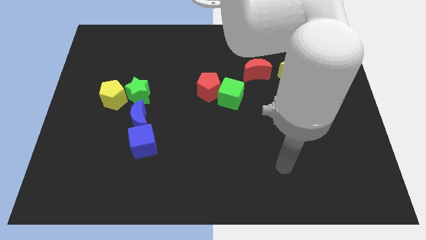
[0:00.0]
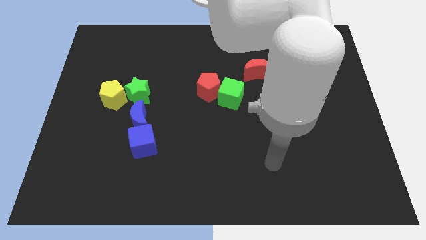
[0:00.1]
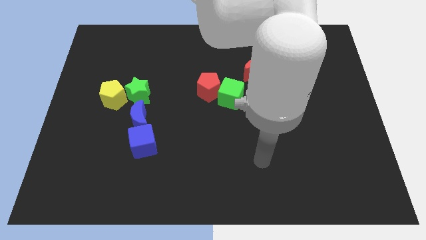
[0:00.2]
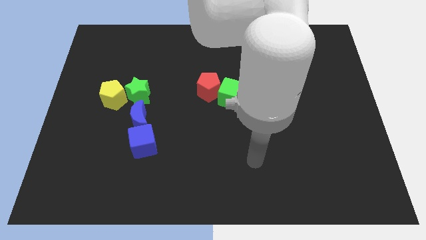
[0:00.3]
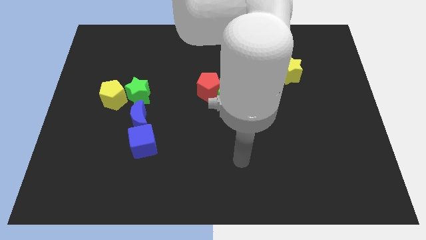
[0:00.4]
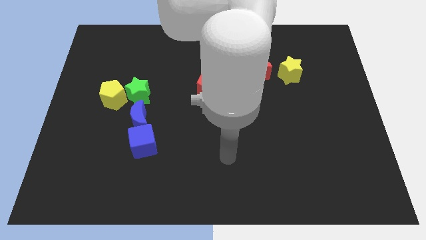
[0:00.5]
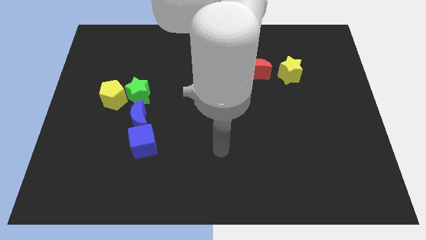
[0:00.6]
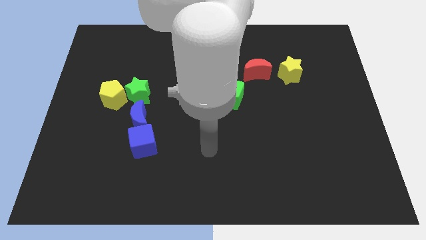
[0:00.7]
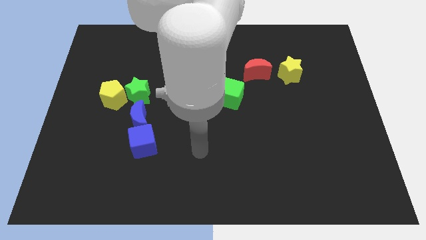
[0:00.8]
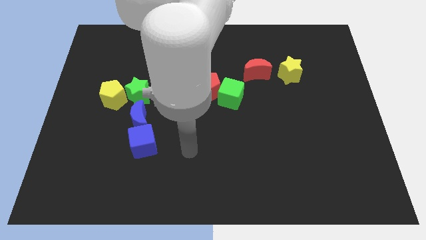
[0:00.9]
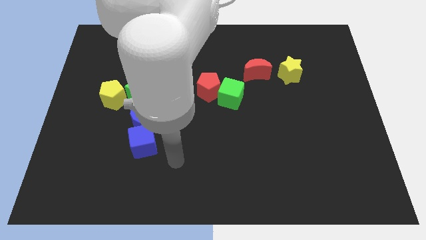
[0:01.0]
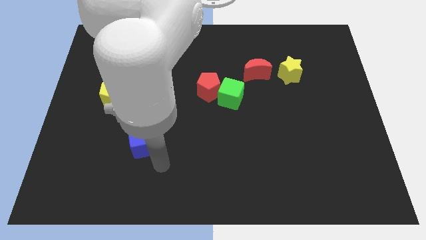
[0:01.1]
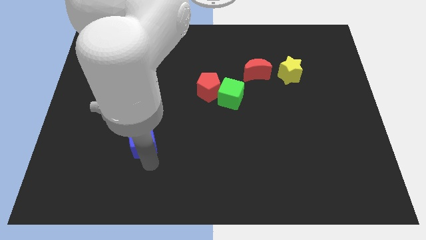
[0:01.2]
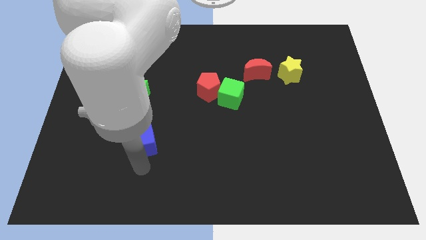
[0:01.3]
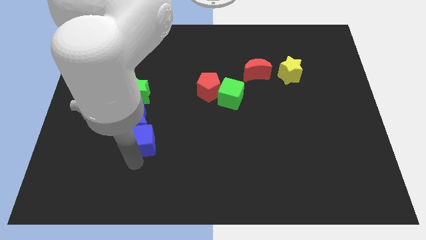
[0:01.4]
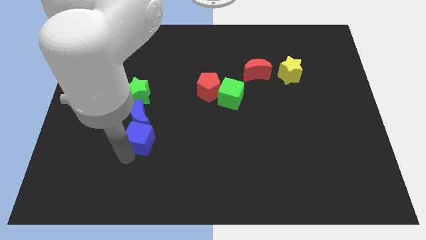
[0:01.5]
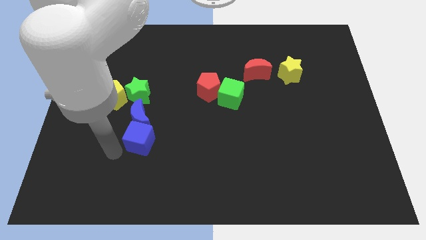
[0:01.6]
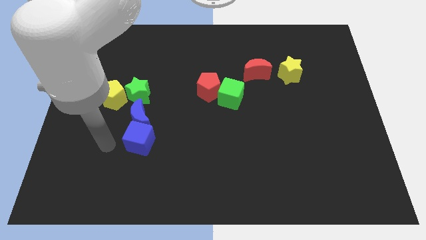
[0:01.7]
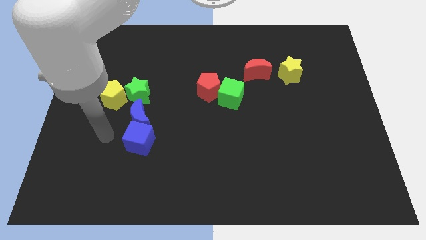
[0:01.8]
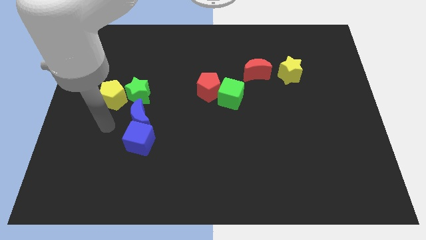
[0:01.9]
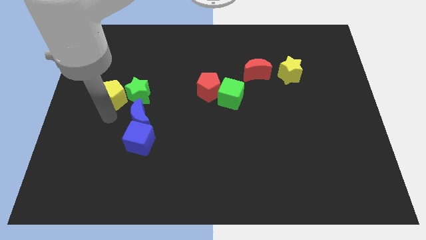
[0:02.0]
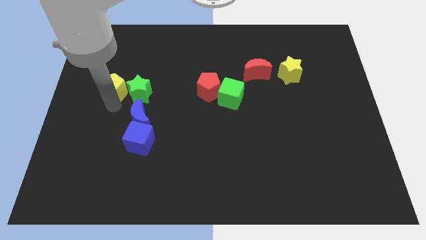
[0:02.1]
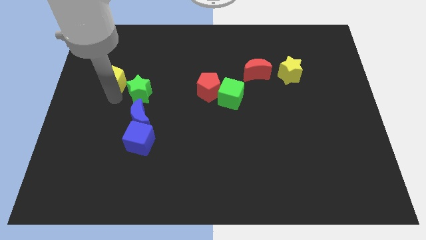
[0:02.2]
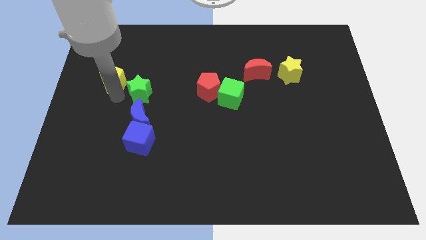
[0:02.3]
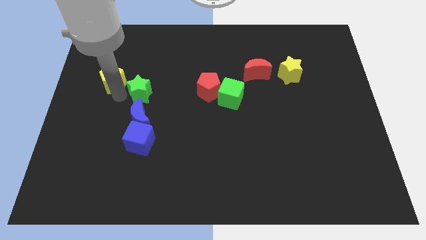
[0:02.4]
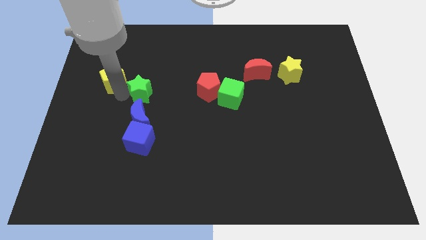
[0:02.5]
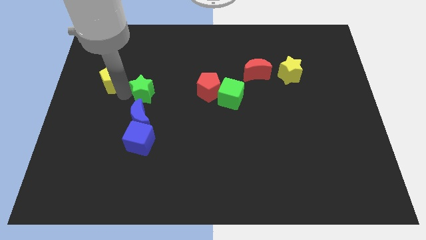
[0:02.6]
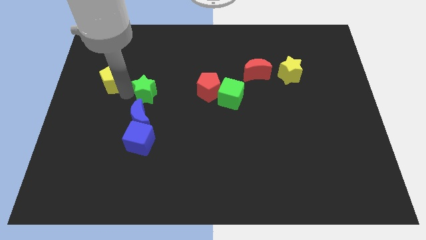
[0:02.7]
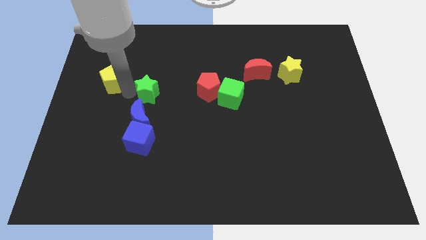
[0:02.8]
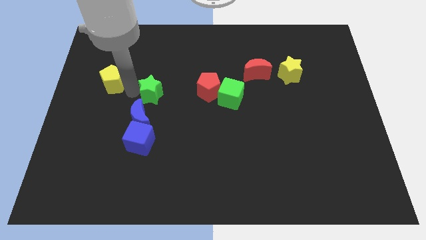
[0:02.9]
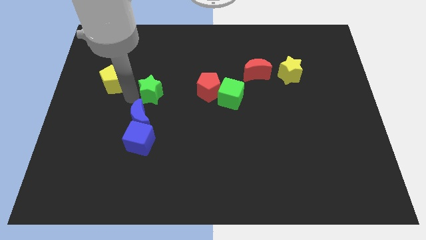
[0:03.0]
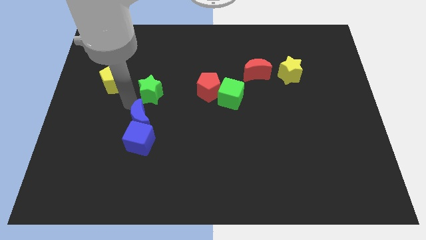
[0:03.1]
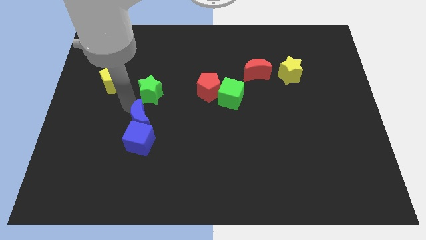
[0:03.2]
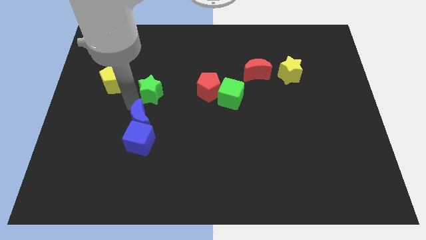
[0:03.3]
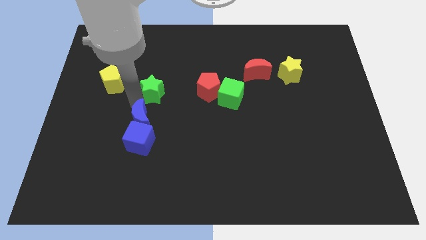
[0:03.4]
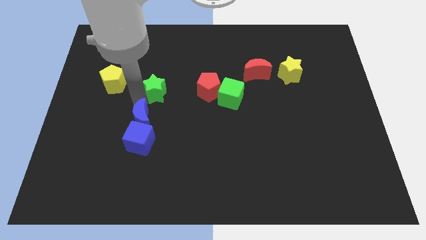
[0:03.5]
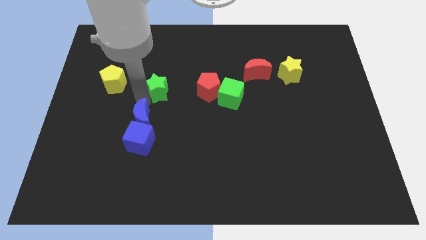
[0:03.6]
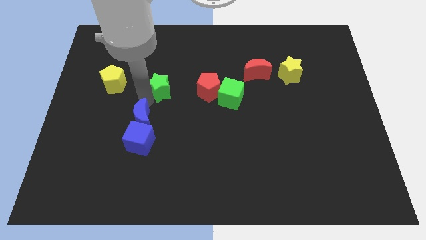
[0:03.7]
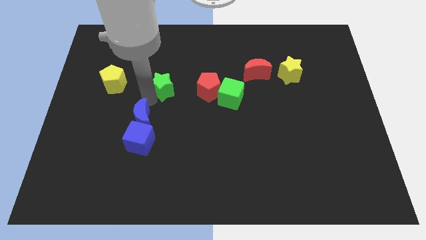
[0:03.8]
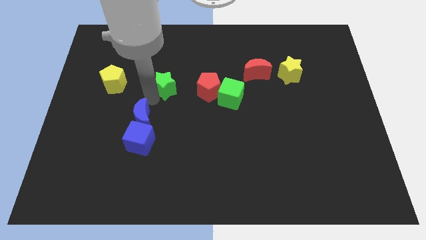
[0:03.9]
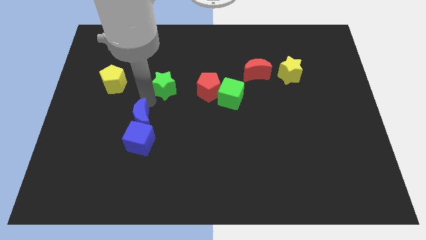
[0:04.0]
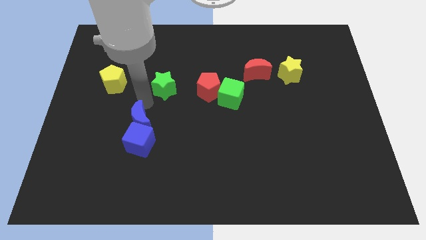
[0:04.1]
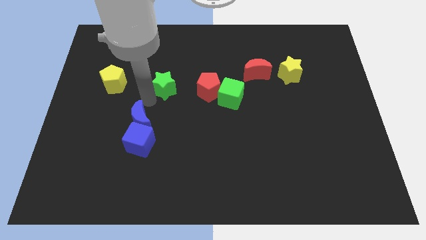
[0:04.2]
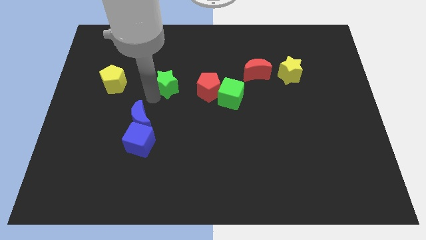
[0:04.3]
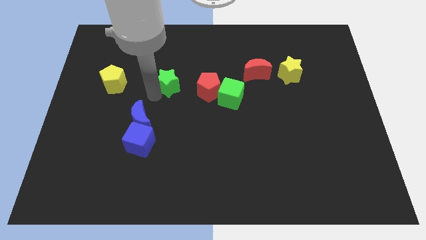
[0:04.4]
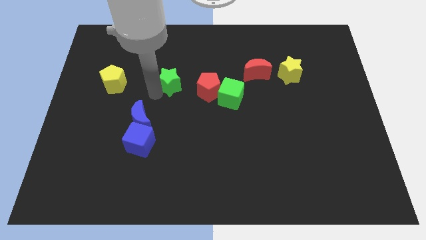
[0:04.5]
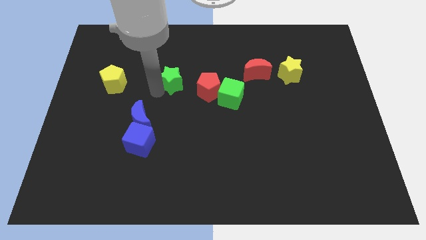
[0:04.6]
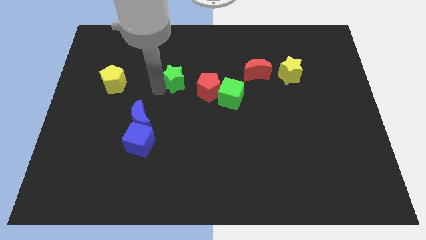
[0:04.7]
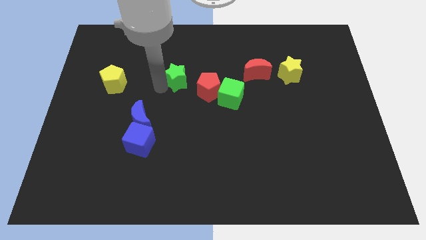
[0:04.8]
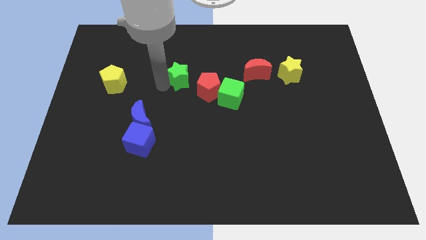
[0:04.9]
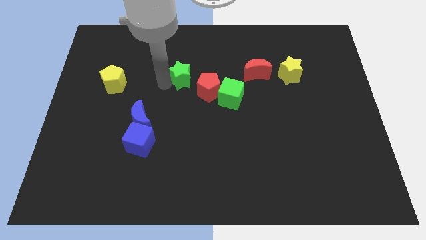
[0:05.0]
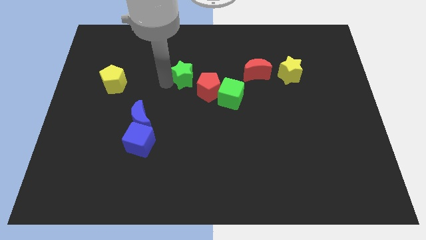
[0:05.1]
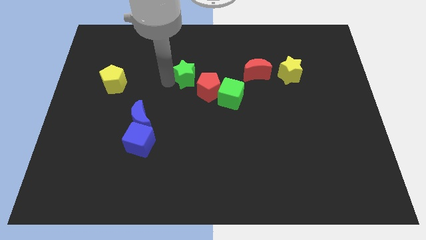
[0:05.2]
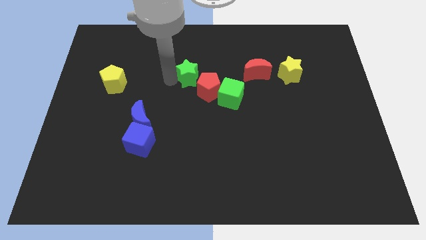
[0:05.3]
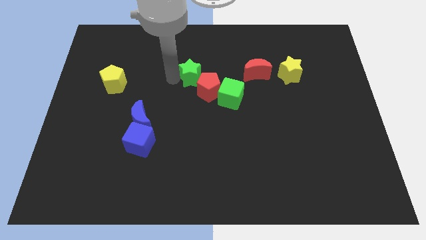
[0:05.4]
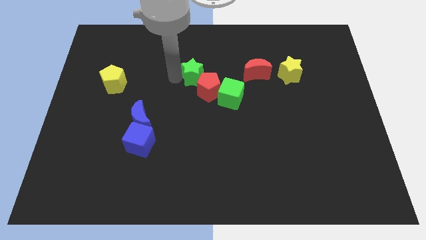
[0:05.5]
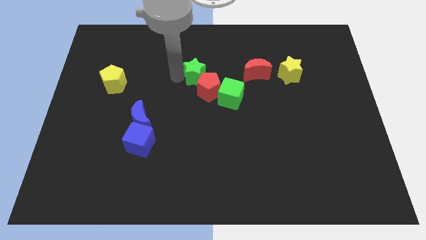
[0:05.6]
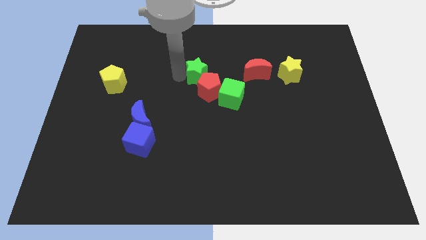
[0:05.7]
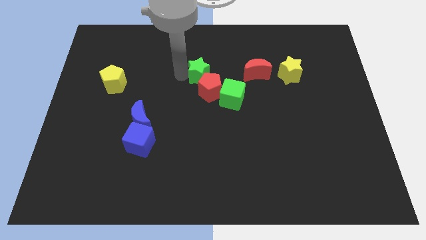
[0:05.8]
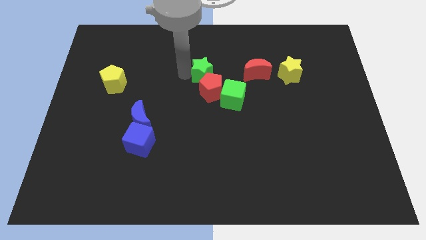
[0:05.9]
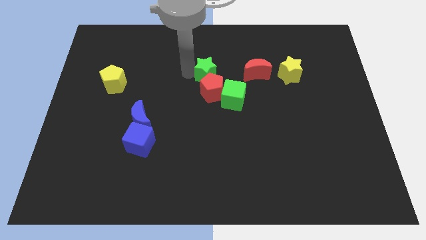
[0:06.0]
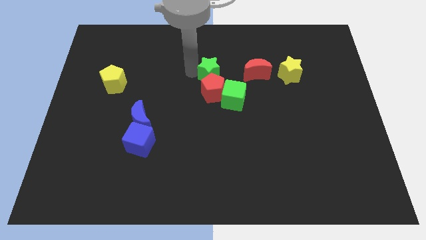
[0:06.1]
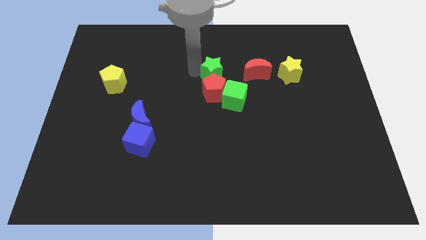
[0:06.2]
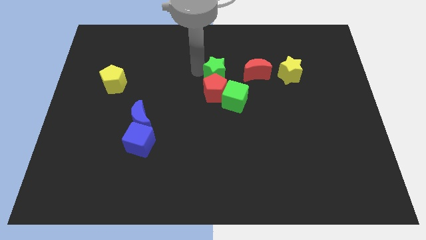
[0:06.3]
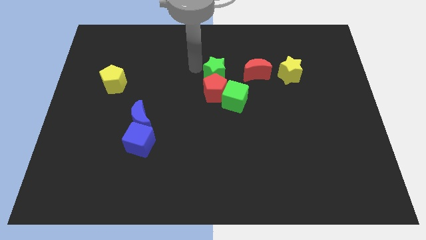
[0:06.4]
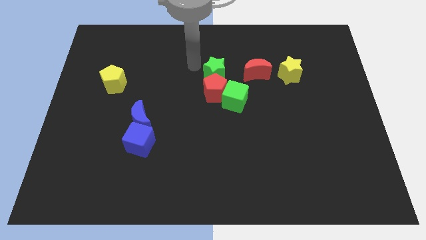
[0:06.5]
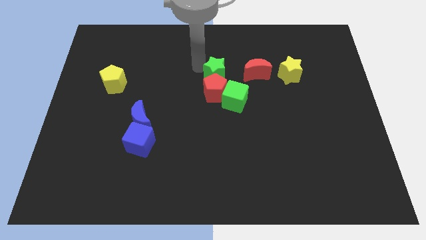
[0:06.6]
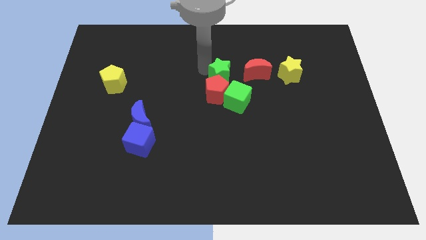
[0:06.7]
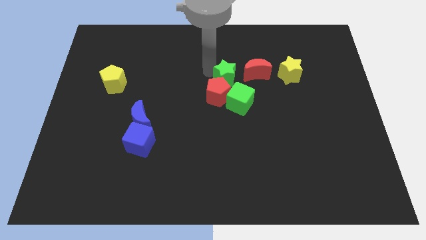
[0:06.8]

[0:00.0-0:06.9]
slide the green star right

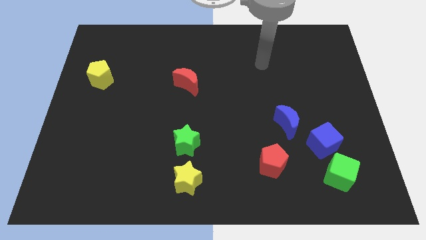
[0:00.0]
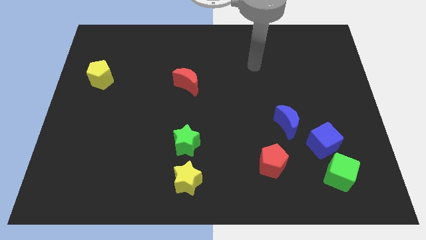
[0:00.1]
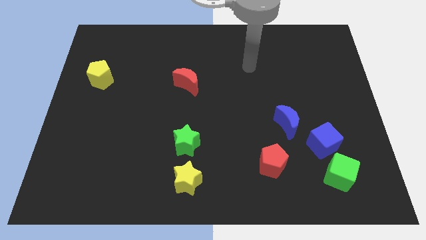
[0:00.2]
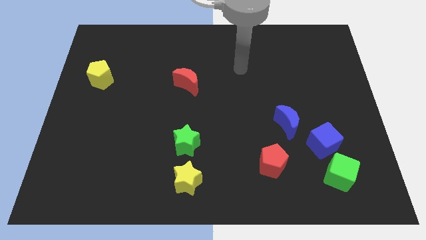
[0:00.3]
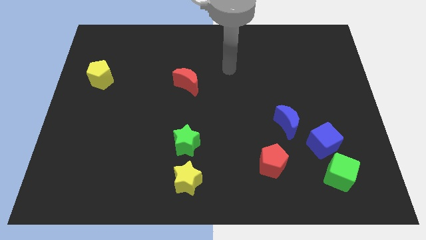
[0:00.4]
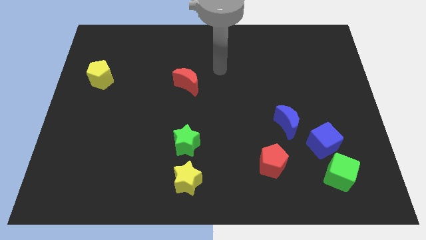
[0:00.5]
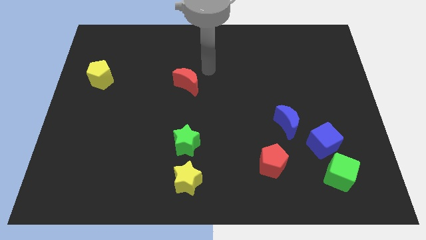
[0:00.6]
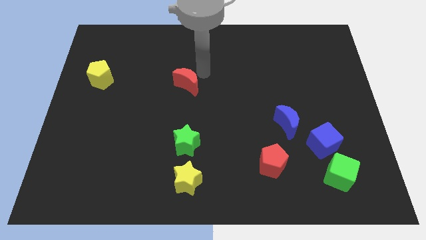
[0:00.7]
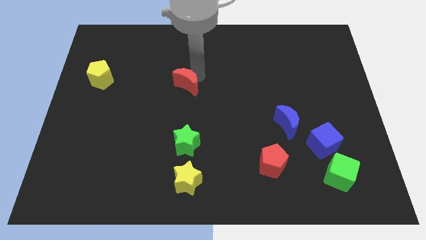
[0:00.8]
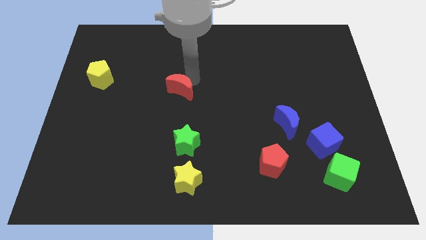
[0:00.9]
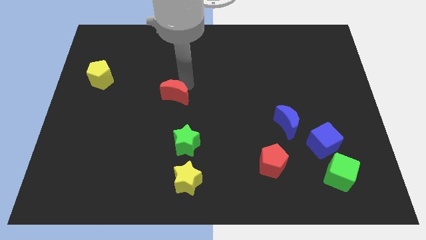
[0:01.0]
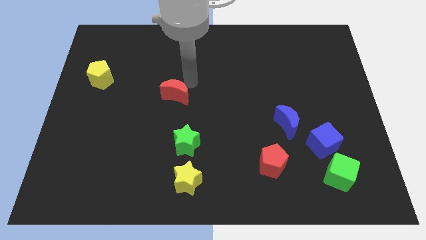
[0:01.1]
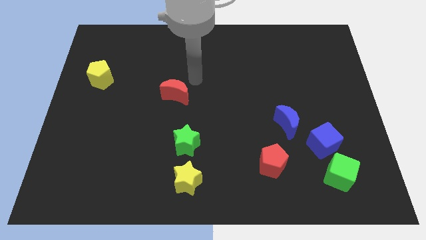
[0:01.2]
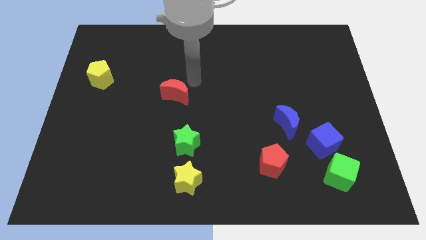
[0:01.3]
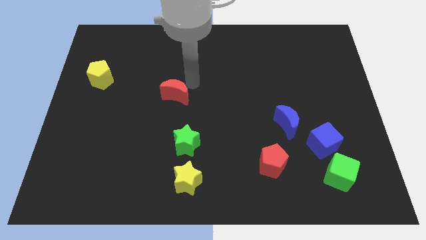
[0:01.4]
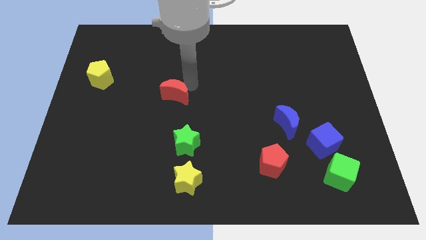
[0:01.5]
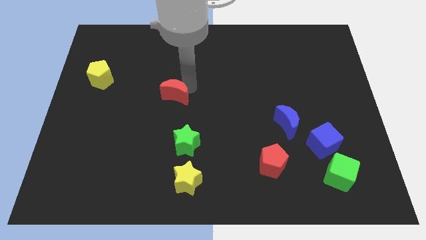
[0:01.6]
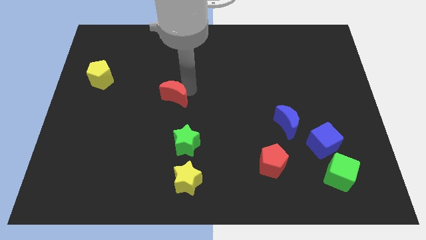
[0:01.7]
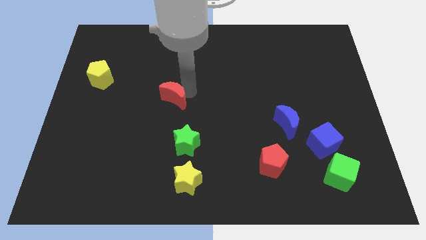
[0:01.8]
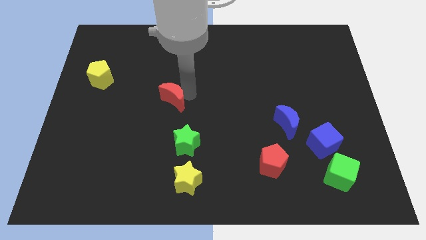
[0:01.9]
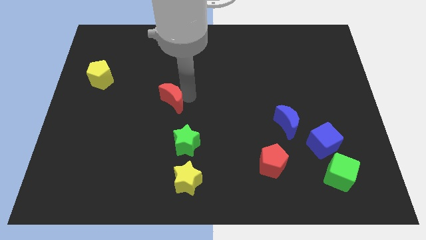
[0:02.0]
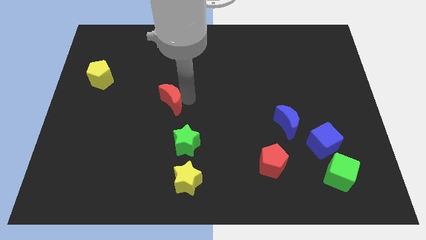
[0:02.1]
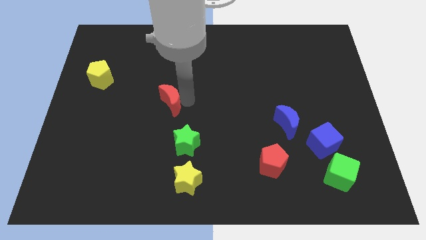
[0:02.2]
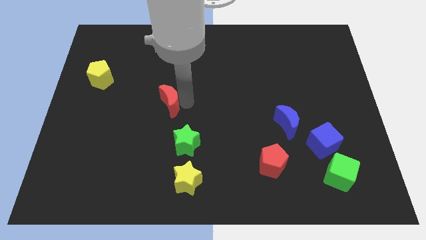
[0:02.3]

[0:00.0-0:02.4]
move the red moon diagonally down and left a bit
